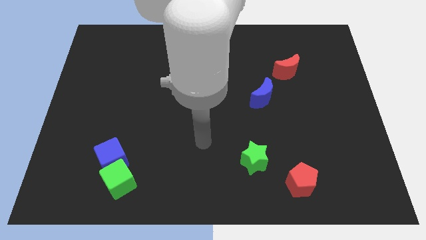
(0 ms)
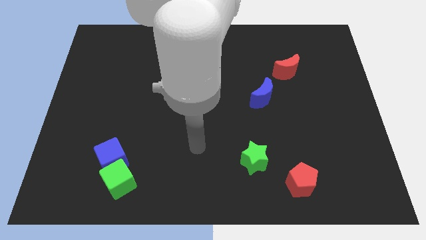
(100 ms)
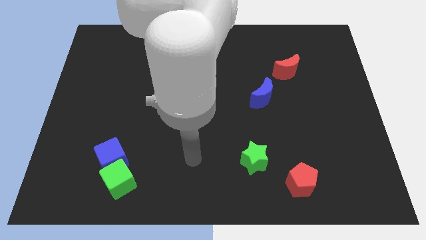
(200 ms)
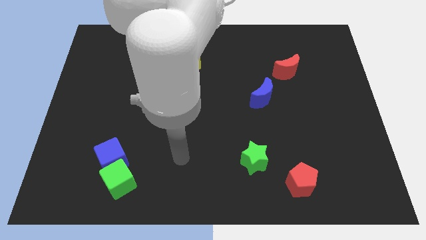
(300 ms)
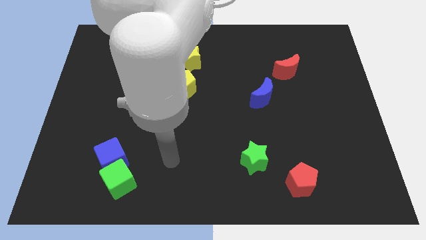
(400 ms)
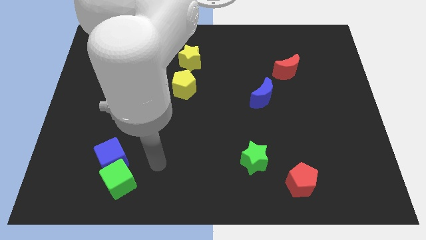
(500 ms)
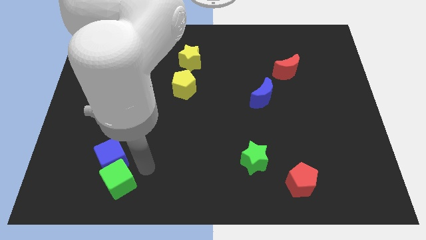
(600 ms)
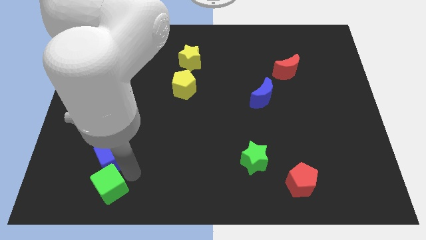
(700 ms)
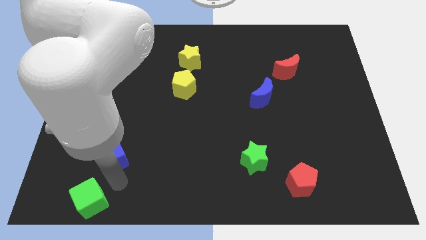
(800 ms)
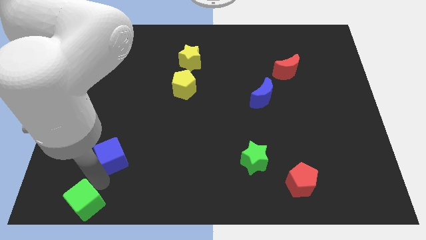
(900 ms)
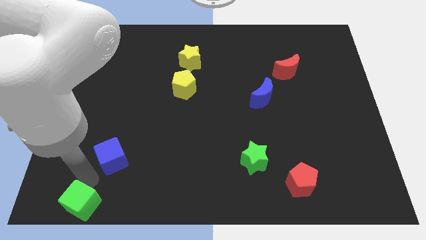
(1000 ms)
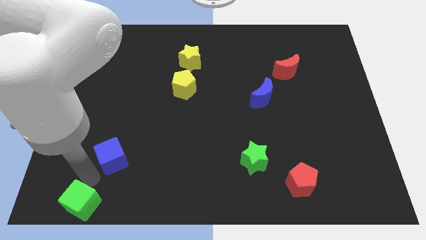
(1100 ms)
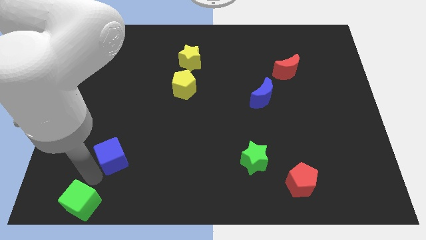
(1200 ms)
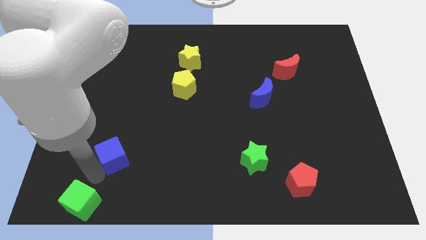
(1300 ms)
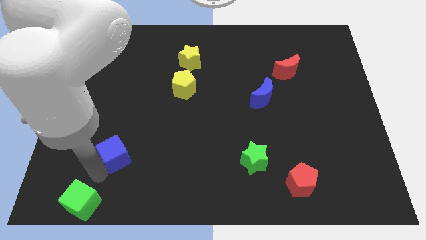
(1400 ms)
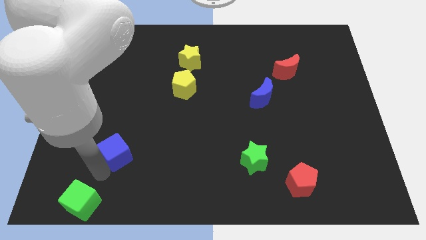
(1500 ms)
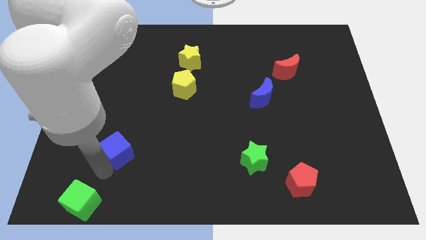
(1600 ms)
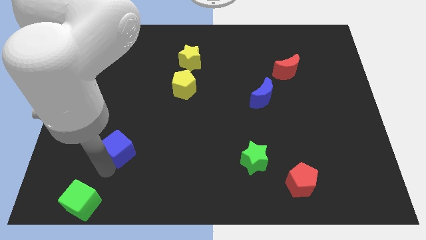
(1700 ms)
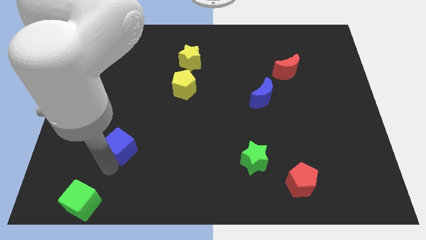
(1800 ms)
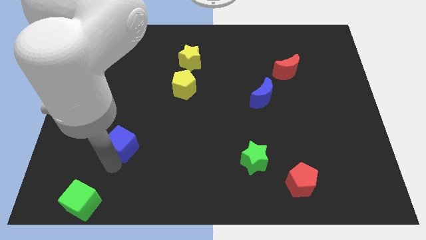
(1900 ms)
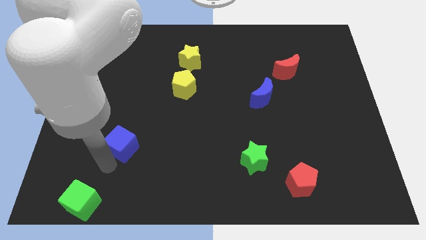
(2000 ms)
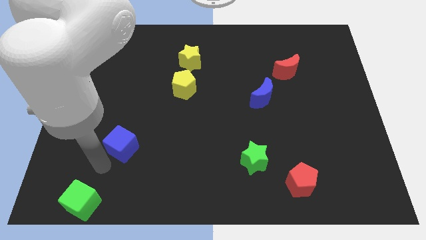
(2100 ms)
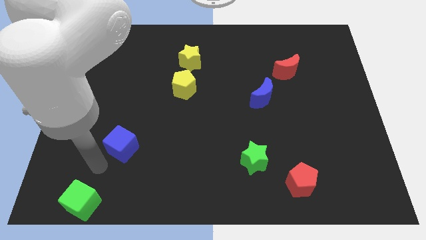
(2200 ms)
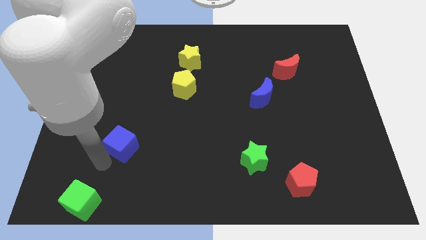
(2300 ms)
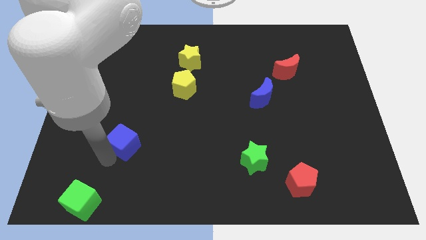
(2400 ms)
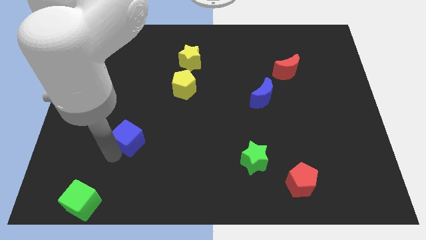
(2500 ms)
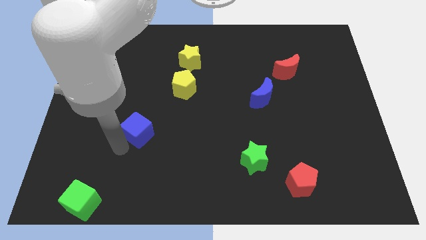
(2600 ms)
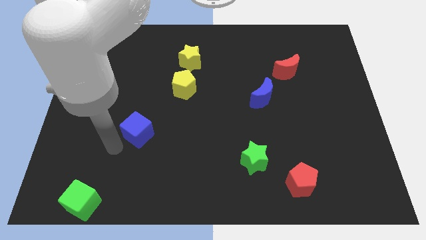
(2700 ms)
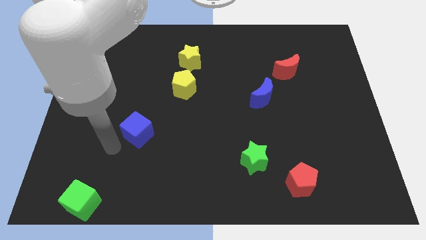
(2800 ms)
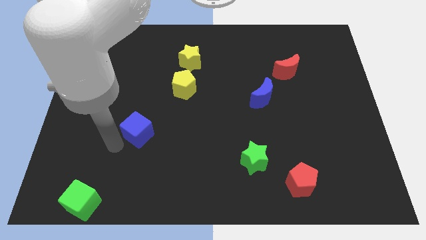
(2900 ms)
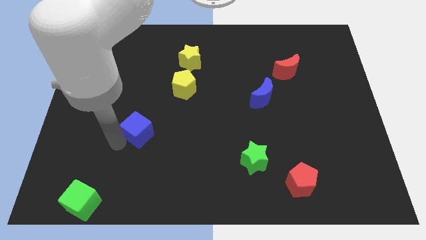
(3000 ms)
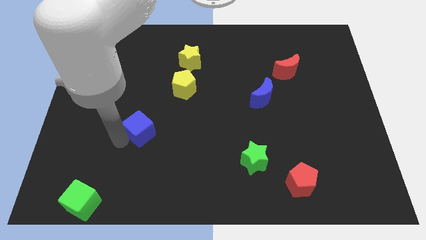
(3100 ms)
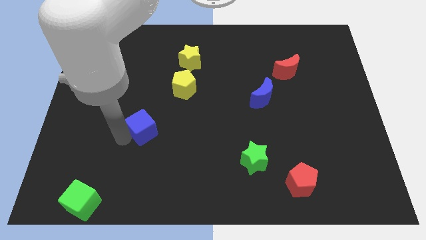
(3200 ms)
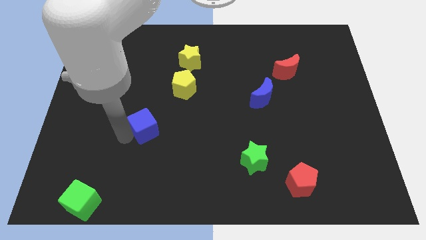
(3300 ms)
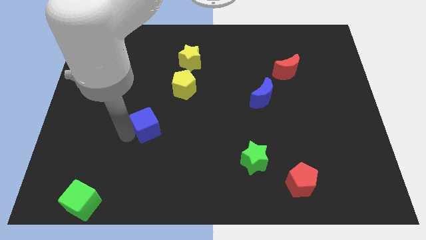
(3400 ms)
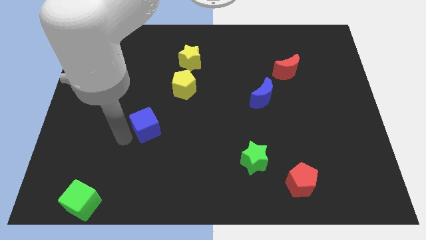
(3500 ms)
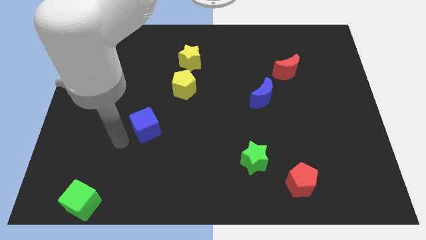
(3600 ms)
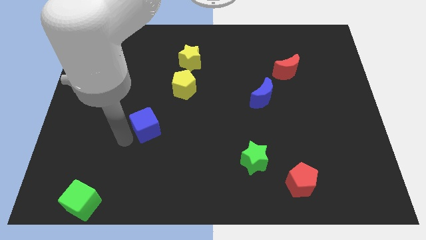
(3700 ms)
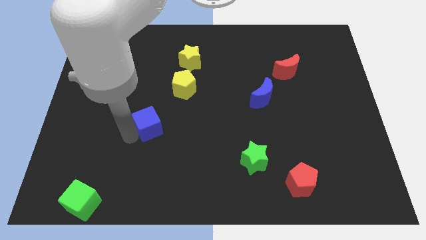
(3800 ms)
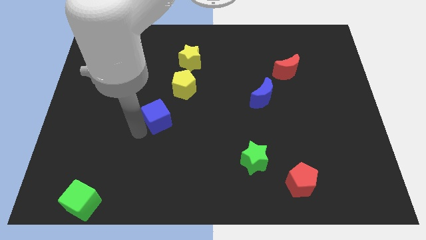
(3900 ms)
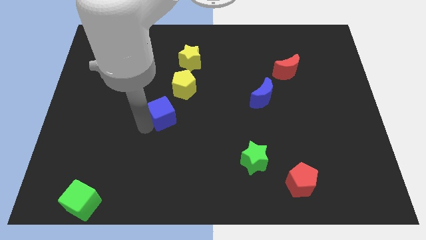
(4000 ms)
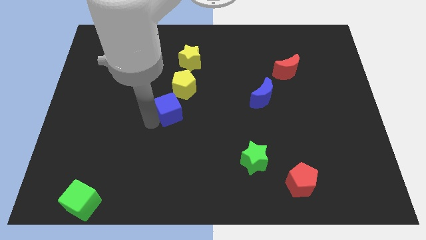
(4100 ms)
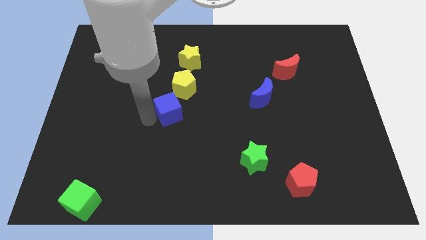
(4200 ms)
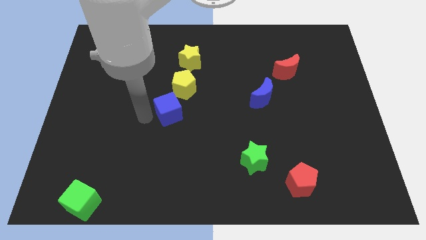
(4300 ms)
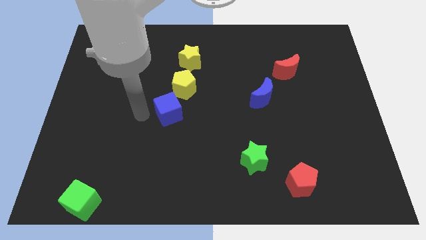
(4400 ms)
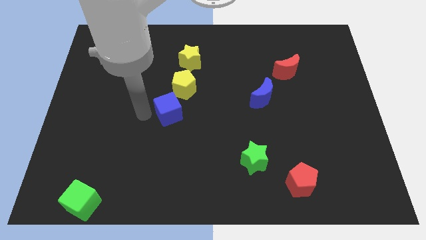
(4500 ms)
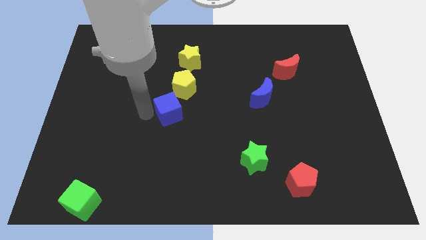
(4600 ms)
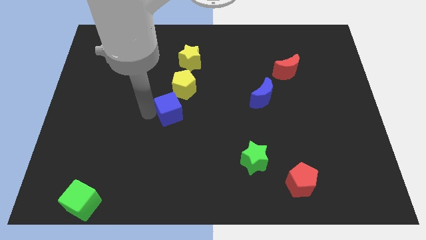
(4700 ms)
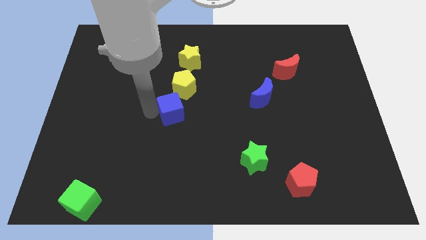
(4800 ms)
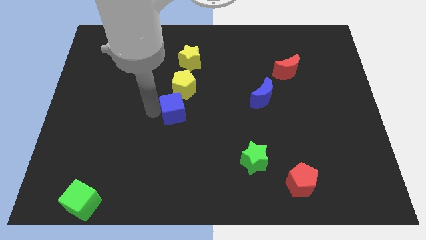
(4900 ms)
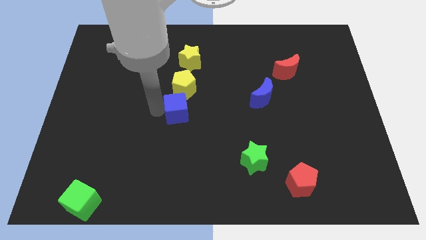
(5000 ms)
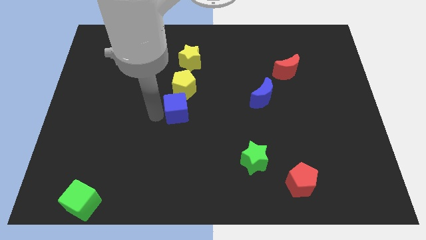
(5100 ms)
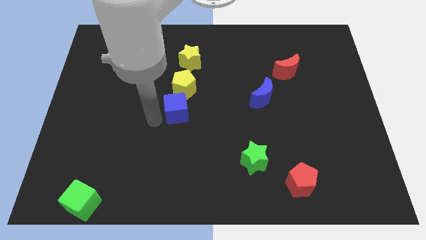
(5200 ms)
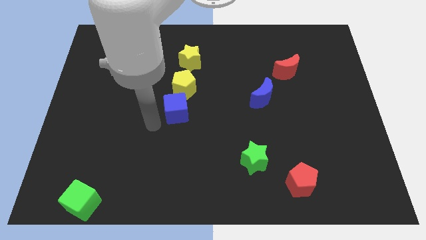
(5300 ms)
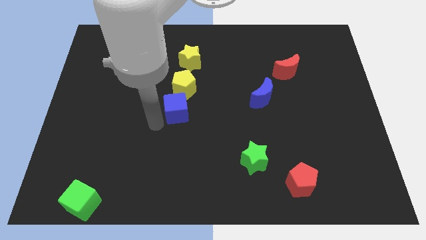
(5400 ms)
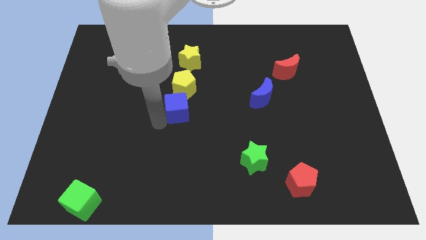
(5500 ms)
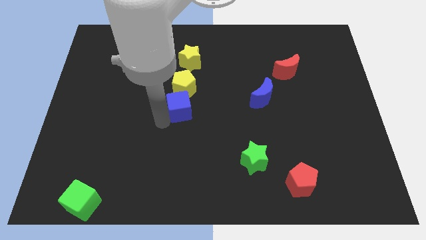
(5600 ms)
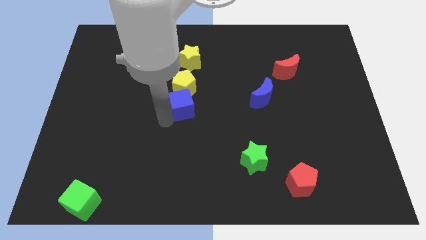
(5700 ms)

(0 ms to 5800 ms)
push the blue cube upwards and then right

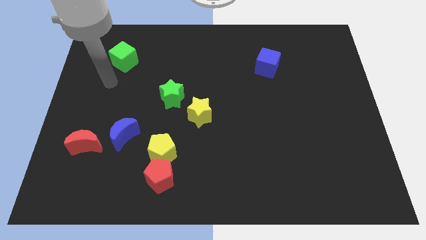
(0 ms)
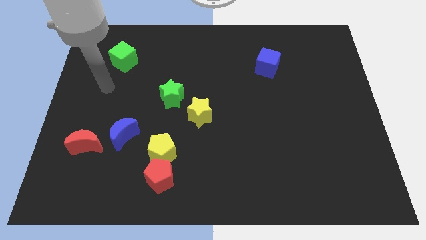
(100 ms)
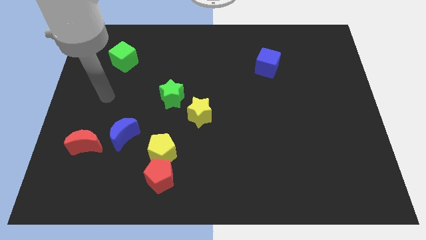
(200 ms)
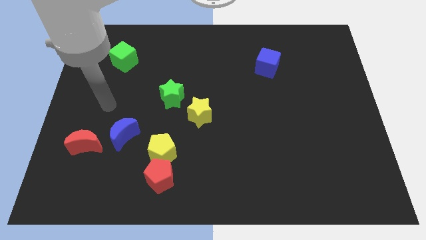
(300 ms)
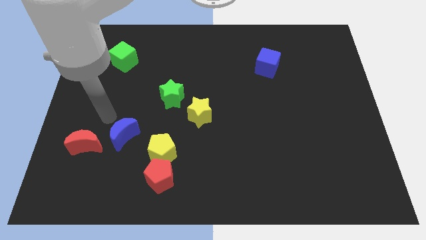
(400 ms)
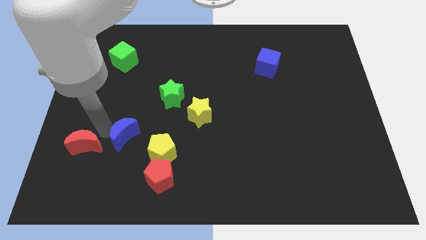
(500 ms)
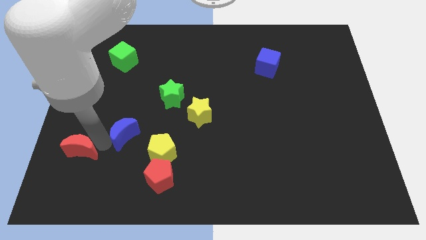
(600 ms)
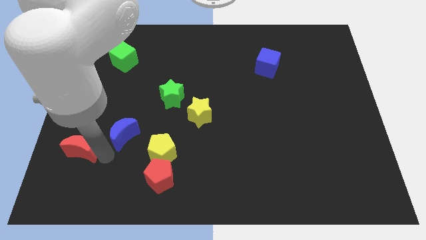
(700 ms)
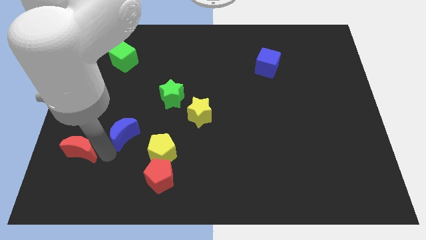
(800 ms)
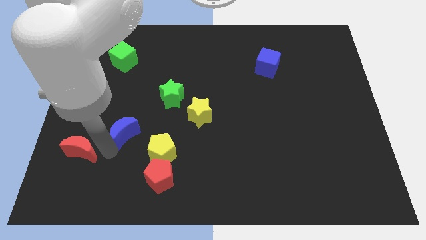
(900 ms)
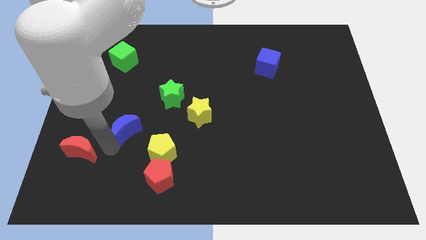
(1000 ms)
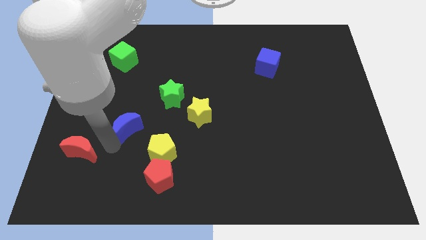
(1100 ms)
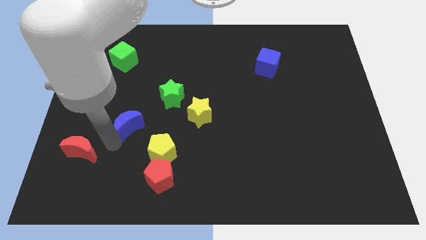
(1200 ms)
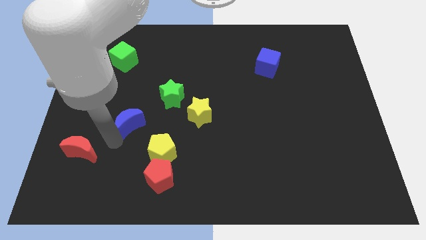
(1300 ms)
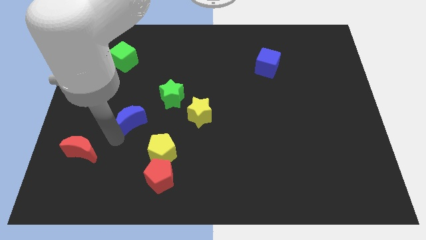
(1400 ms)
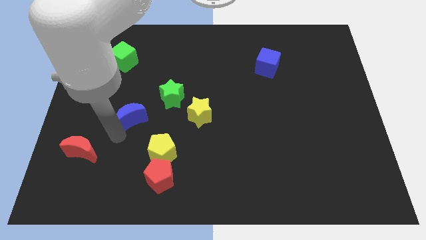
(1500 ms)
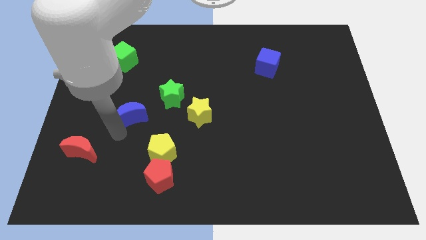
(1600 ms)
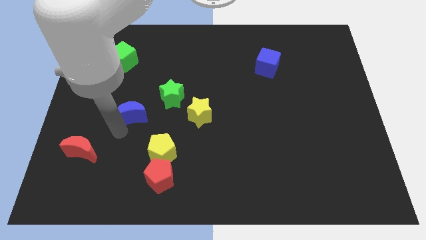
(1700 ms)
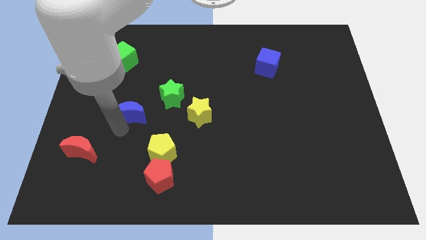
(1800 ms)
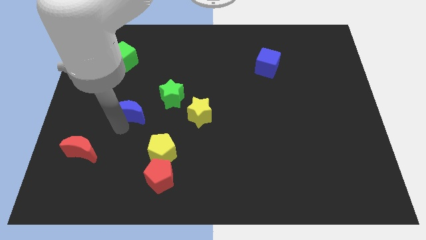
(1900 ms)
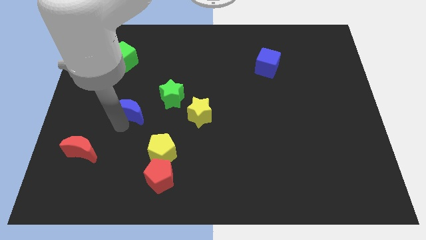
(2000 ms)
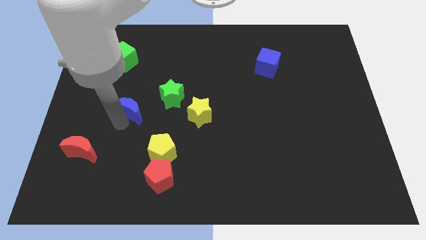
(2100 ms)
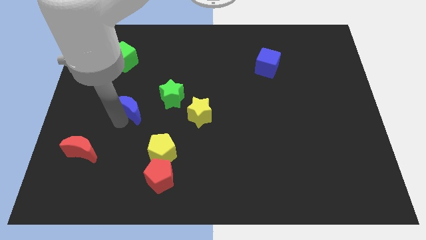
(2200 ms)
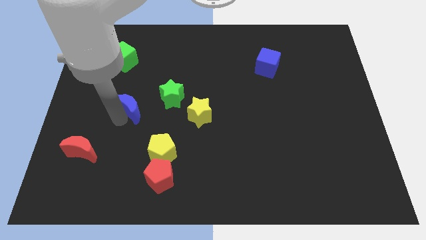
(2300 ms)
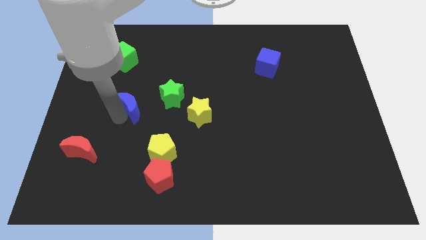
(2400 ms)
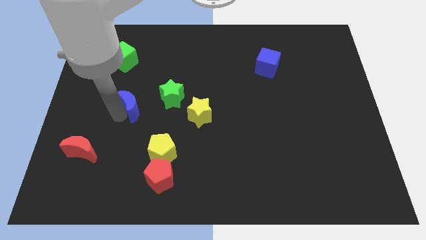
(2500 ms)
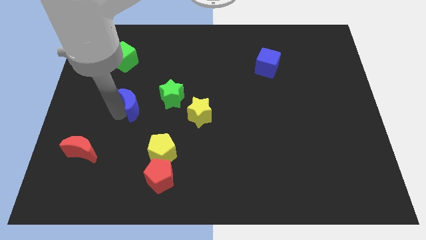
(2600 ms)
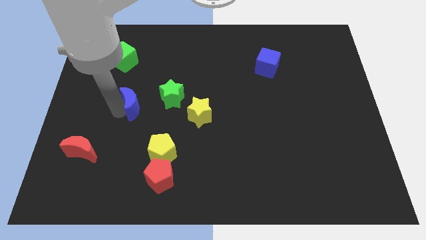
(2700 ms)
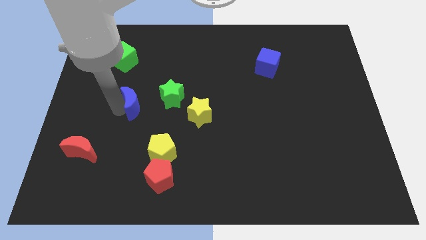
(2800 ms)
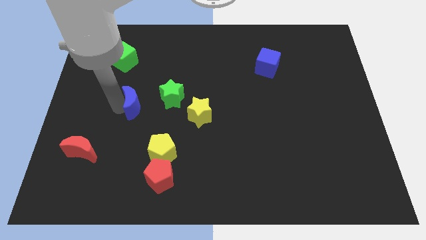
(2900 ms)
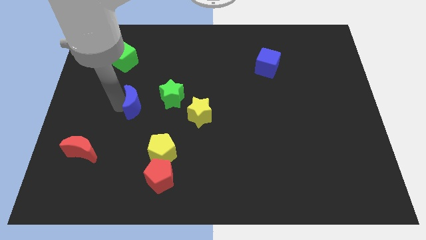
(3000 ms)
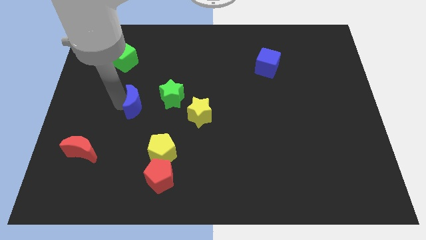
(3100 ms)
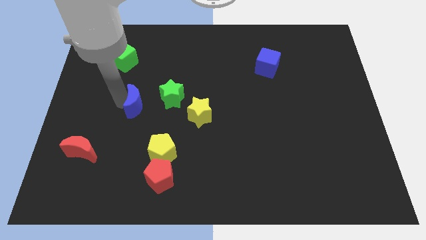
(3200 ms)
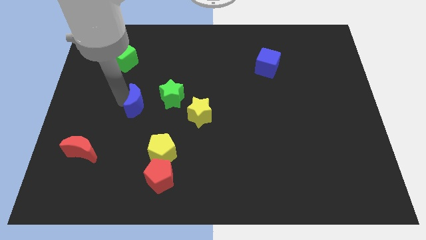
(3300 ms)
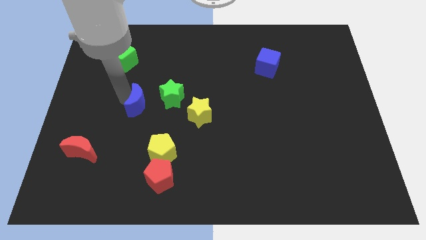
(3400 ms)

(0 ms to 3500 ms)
push the blue moon up and then right a little bit
